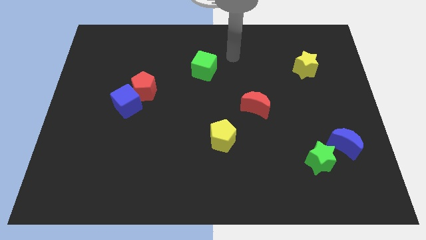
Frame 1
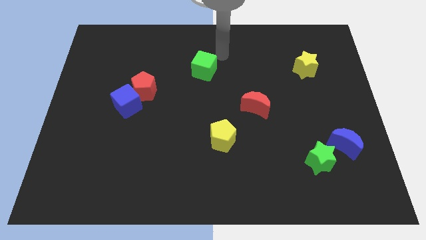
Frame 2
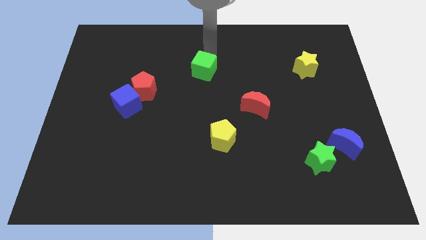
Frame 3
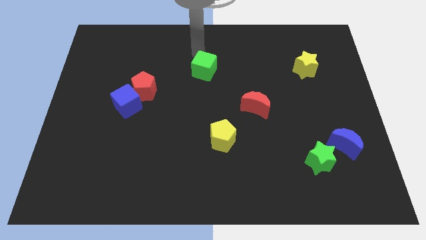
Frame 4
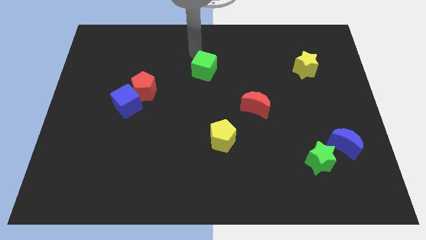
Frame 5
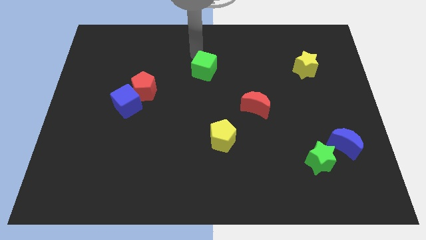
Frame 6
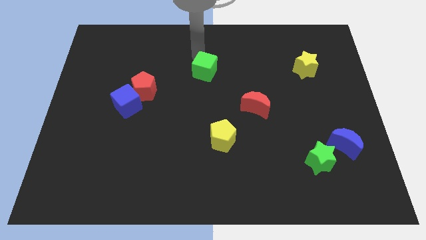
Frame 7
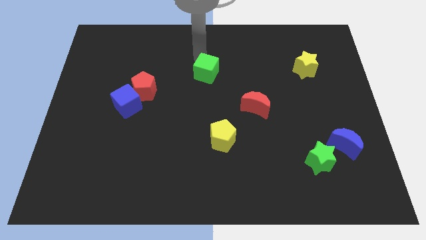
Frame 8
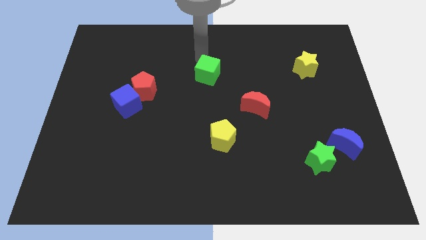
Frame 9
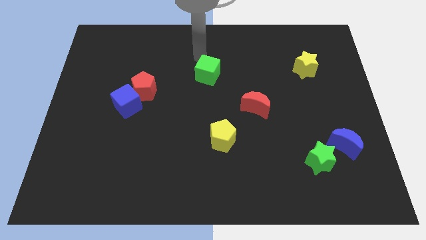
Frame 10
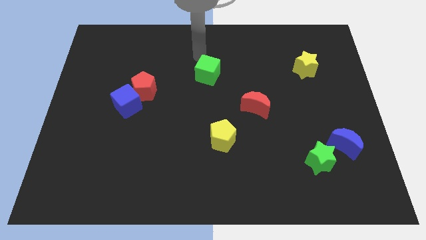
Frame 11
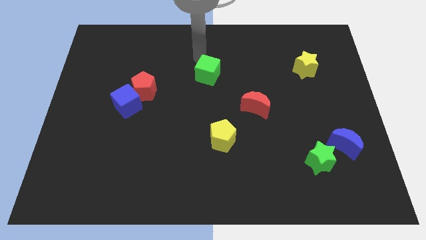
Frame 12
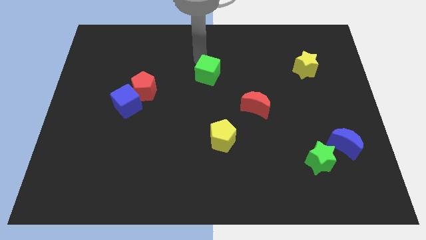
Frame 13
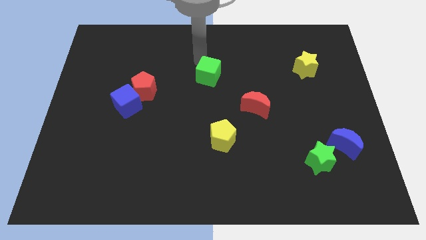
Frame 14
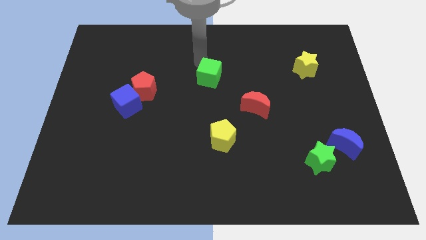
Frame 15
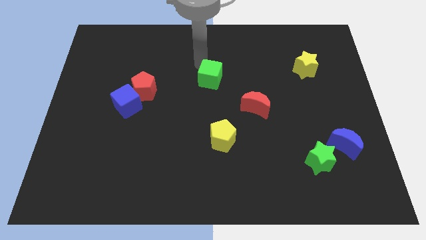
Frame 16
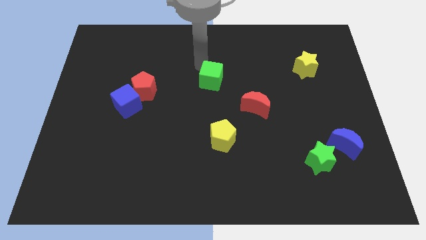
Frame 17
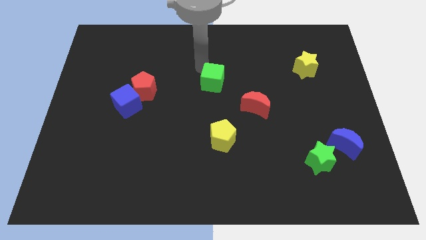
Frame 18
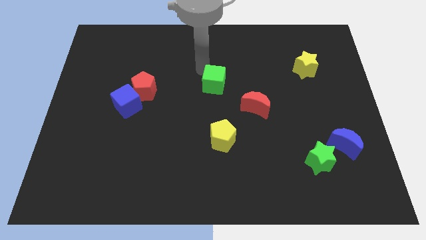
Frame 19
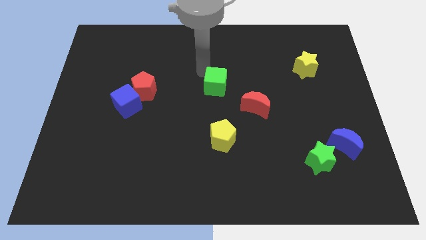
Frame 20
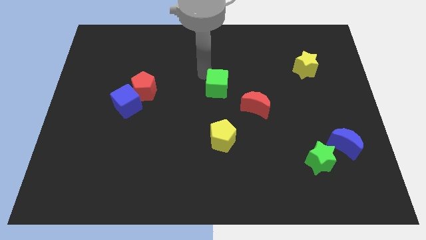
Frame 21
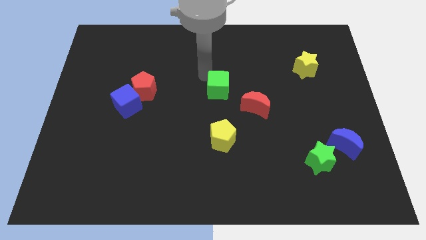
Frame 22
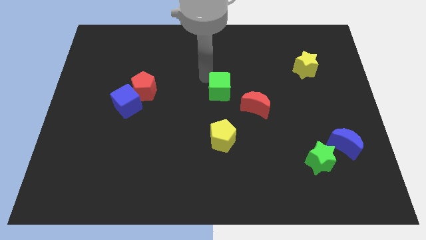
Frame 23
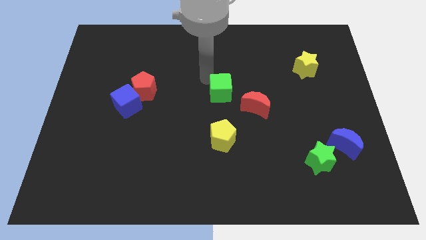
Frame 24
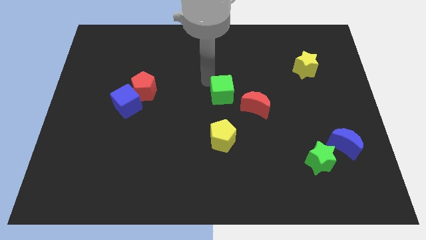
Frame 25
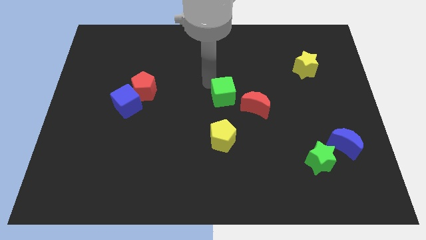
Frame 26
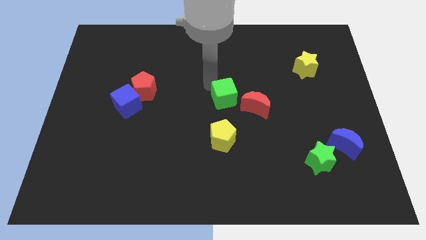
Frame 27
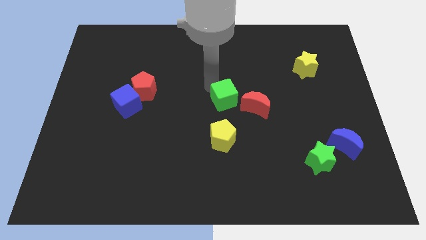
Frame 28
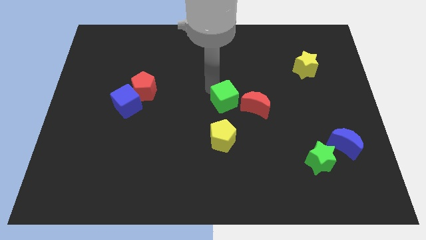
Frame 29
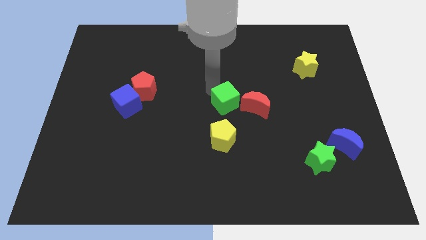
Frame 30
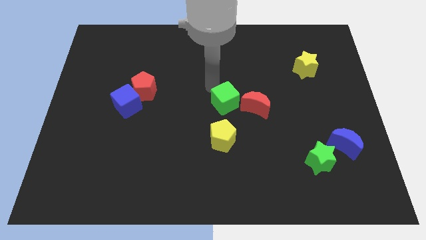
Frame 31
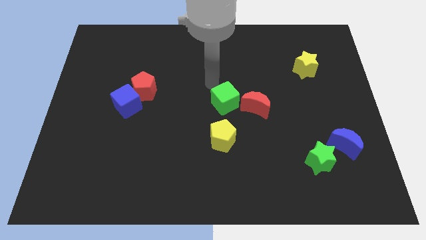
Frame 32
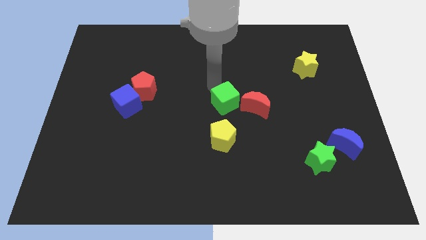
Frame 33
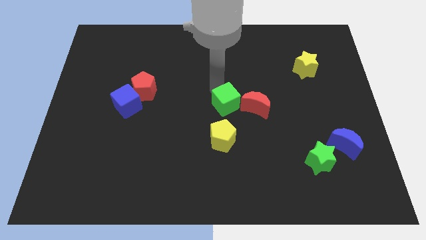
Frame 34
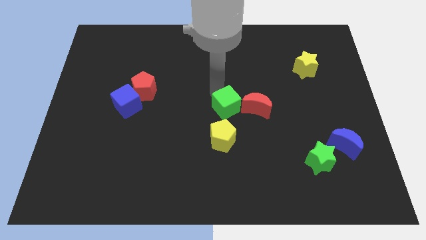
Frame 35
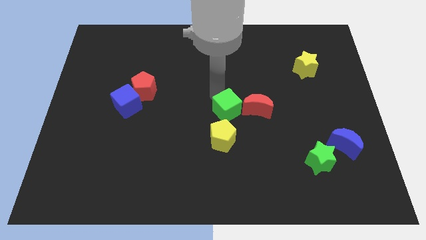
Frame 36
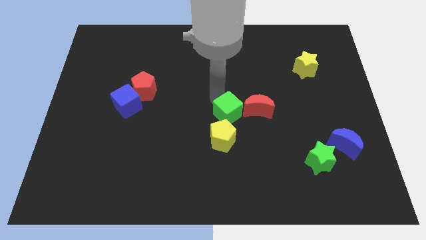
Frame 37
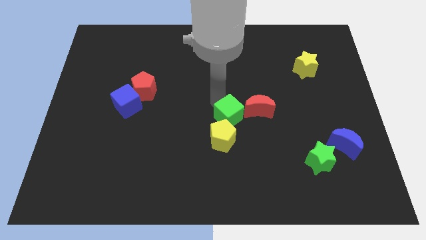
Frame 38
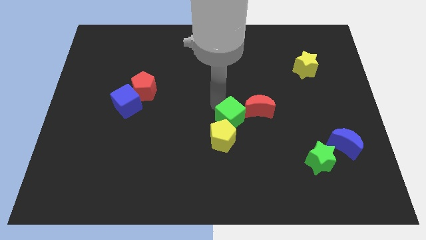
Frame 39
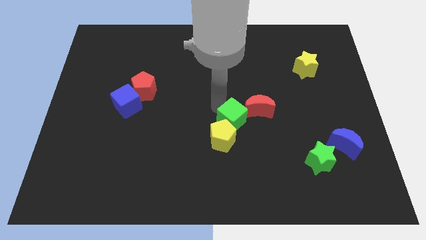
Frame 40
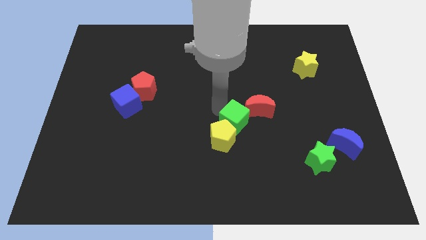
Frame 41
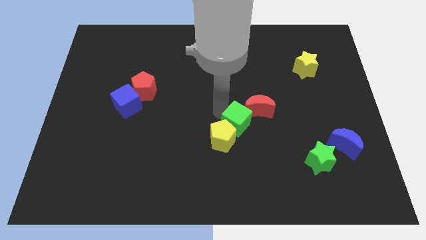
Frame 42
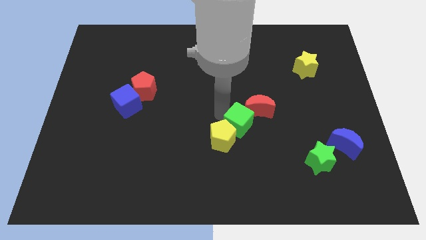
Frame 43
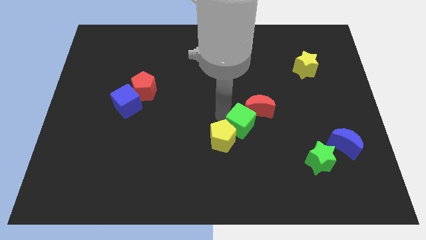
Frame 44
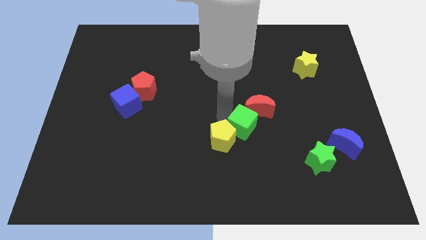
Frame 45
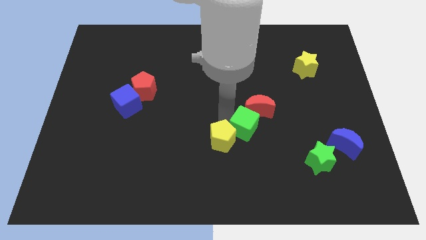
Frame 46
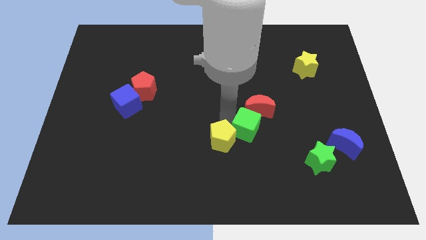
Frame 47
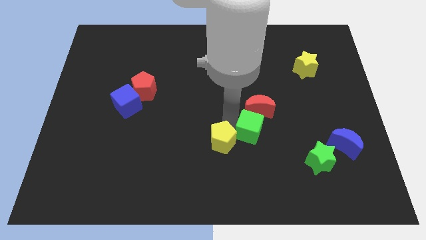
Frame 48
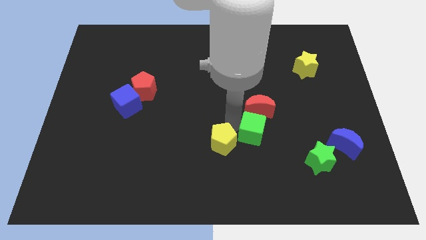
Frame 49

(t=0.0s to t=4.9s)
push the green cube downwards and then to the right

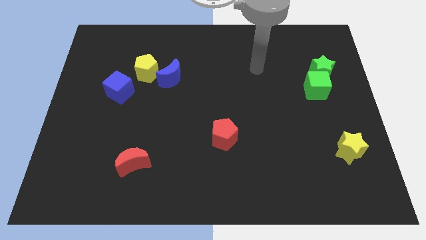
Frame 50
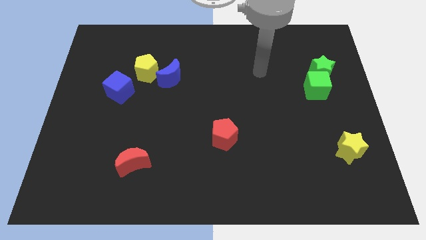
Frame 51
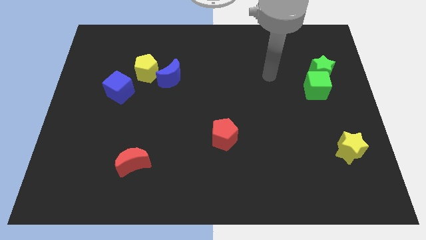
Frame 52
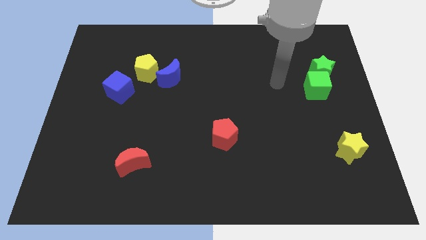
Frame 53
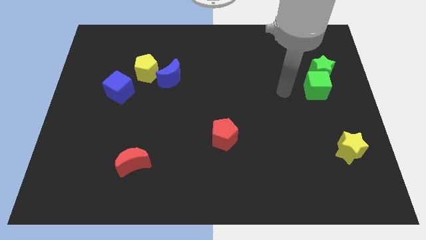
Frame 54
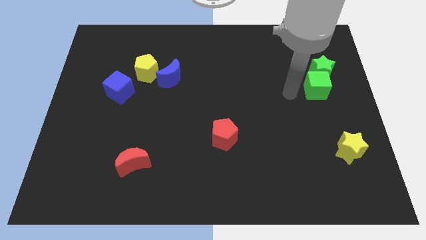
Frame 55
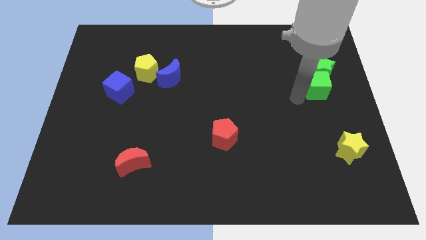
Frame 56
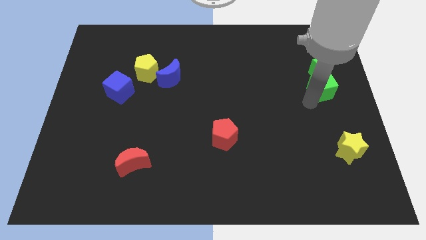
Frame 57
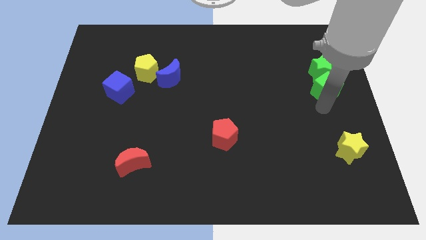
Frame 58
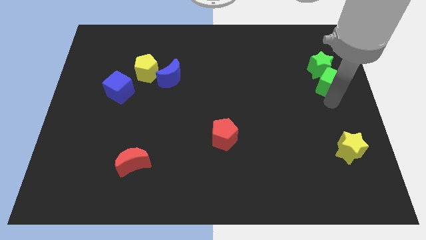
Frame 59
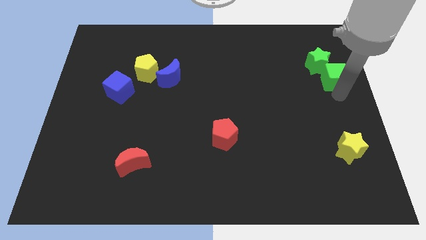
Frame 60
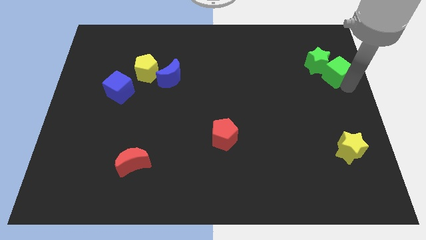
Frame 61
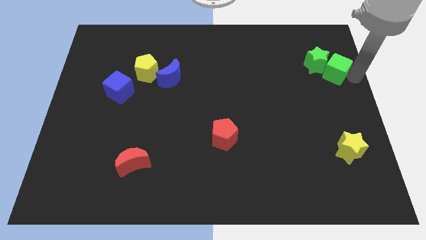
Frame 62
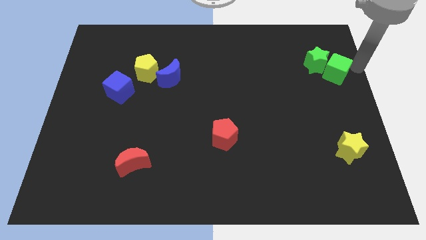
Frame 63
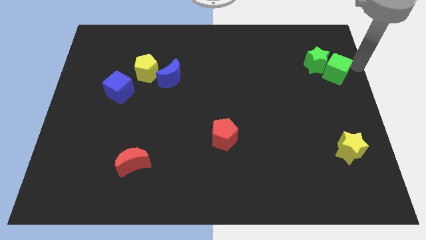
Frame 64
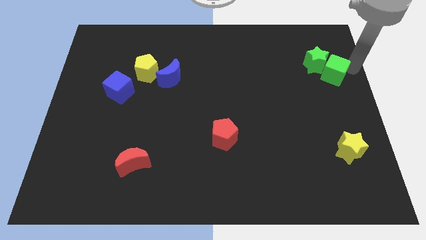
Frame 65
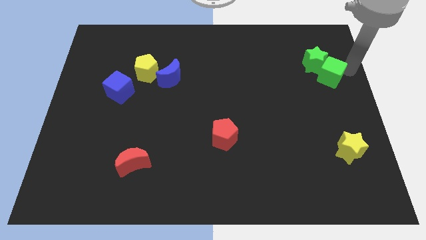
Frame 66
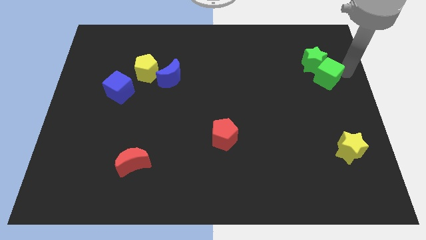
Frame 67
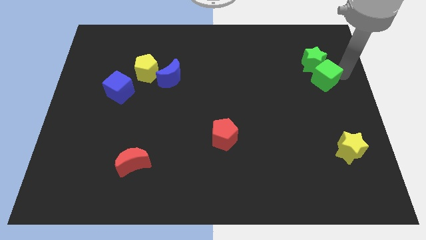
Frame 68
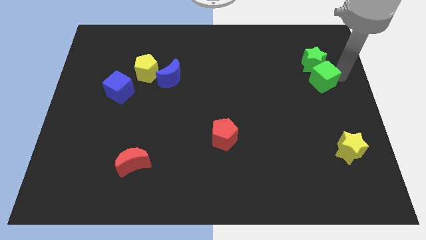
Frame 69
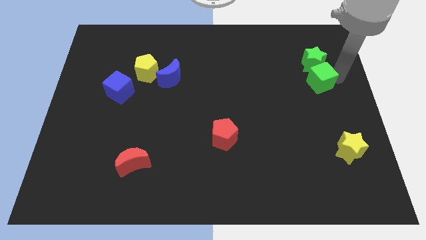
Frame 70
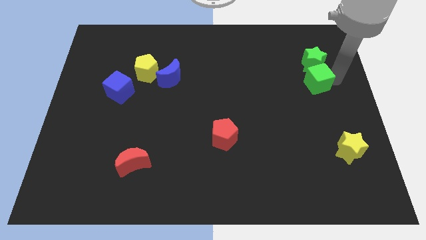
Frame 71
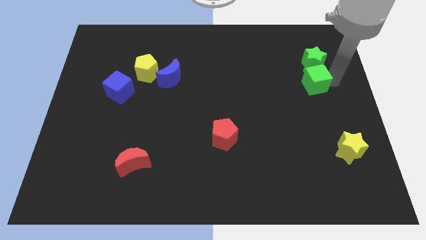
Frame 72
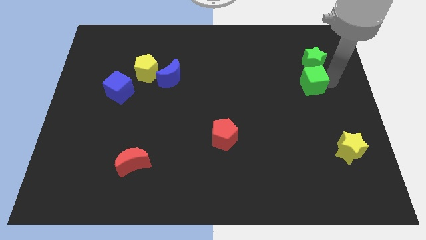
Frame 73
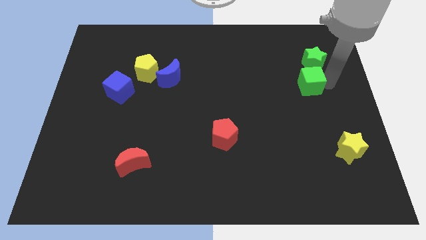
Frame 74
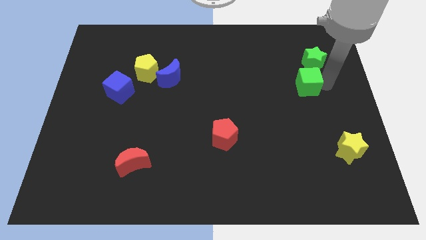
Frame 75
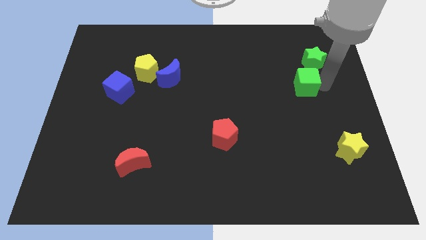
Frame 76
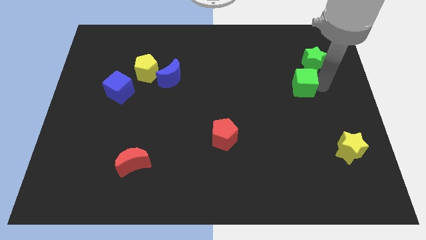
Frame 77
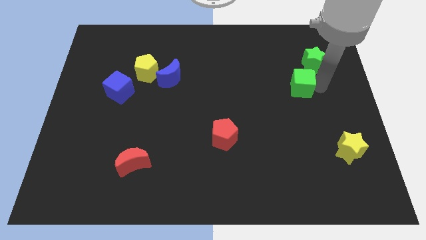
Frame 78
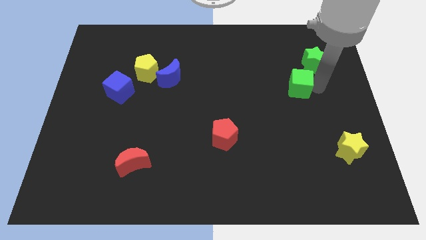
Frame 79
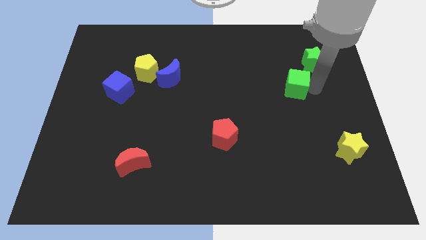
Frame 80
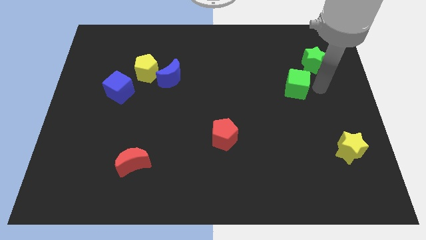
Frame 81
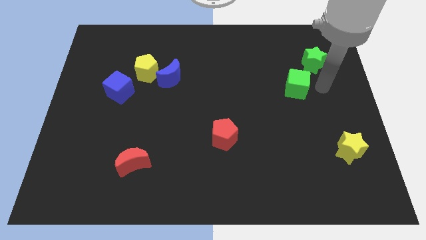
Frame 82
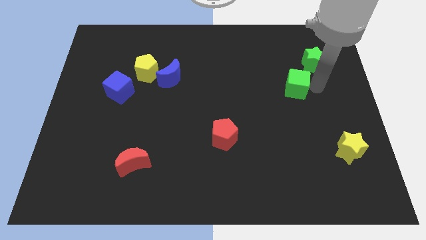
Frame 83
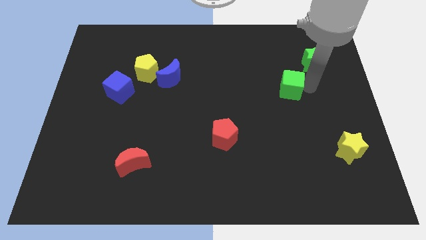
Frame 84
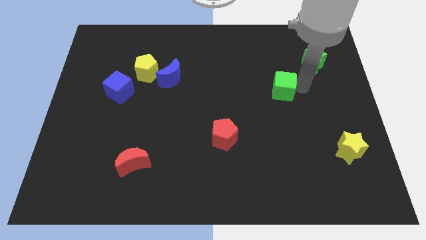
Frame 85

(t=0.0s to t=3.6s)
slide the green cube to the left somewhat
